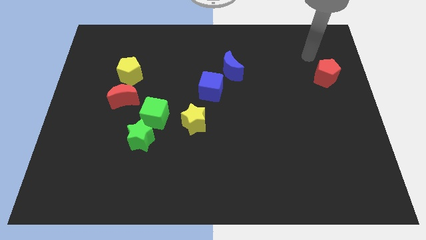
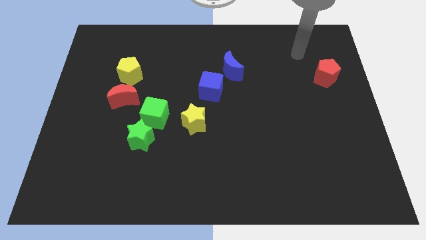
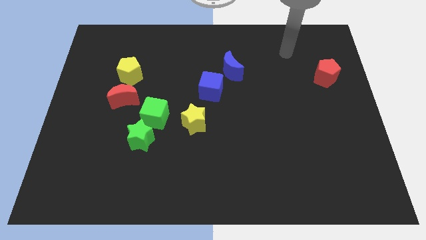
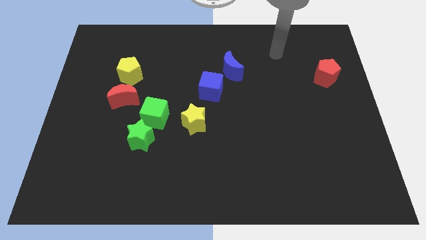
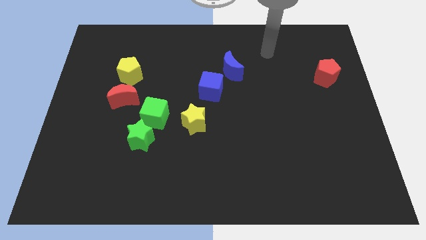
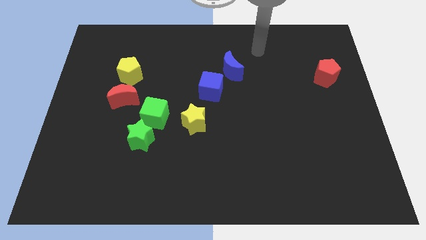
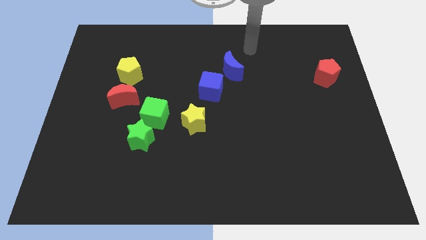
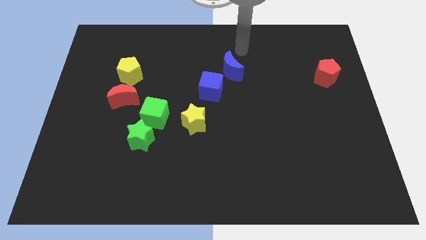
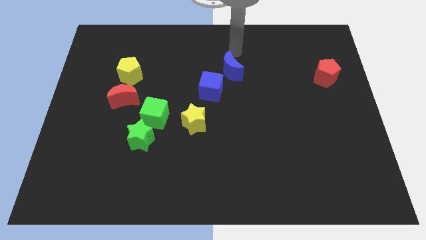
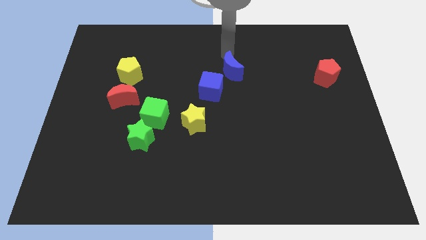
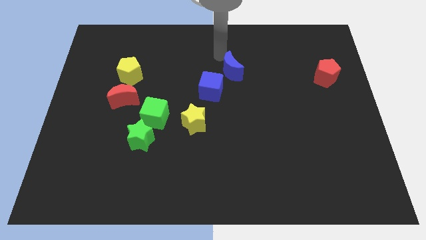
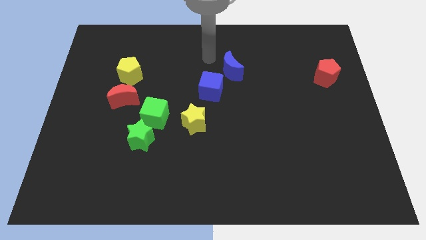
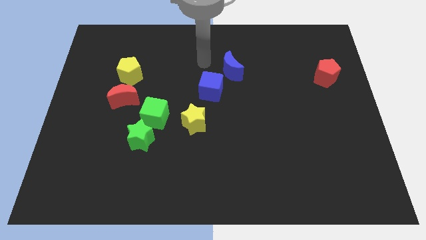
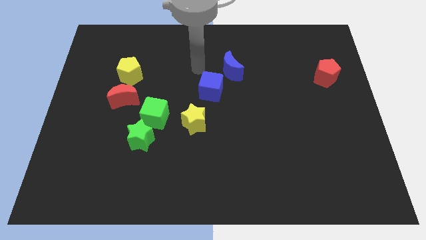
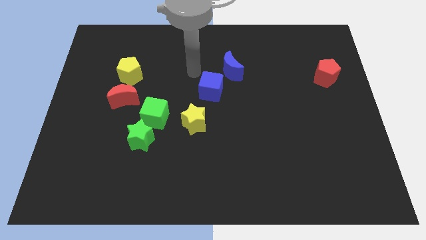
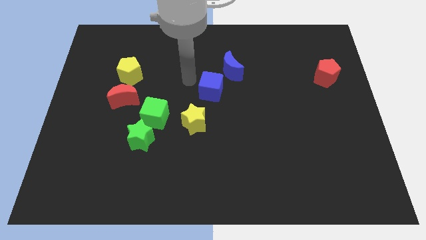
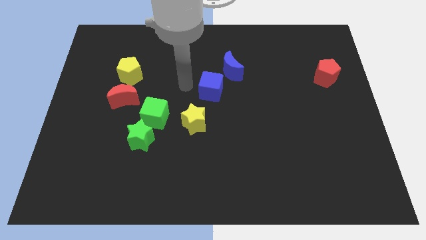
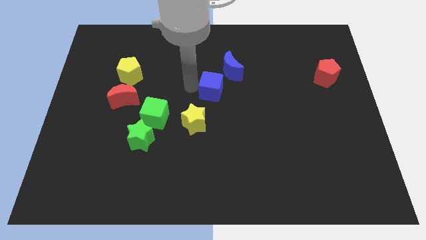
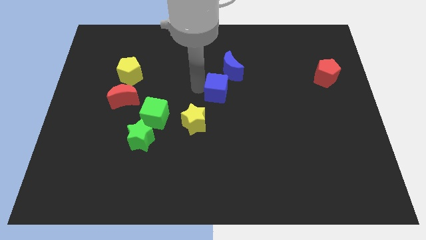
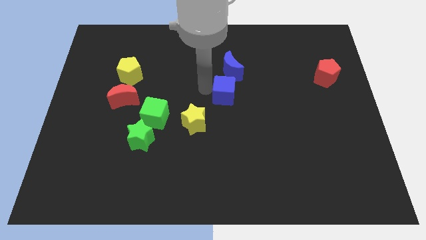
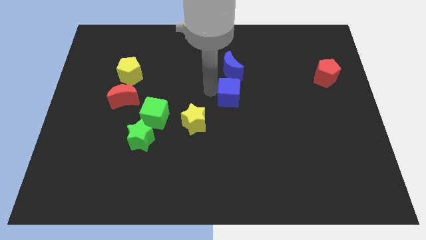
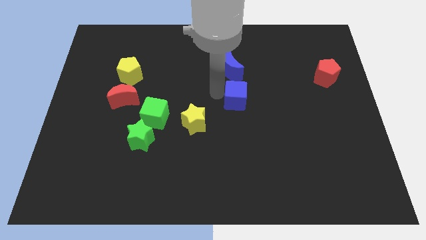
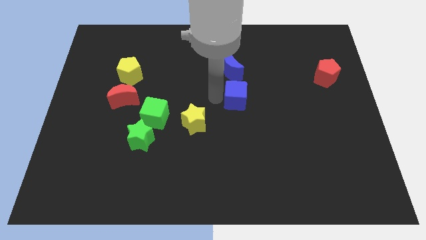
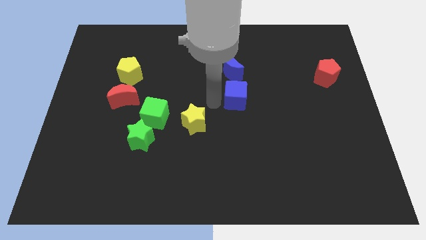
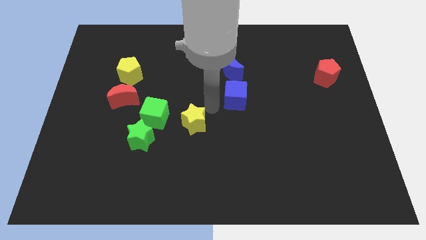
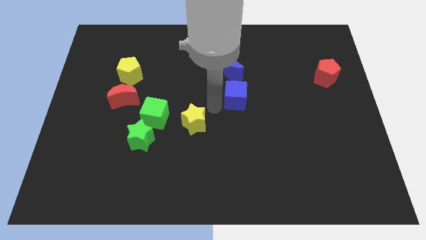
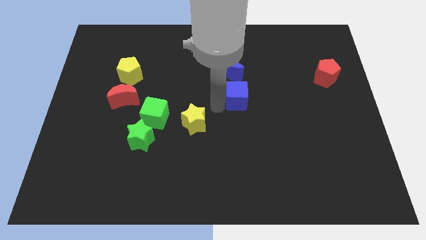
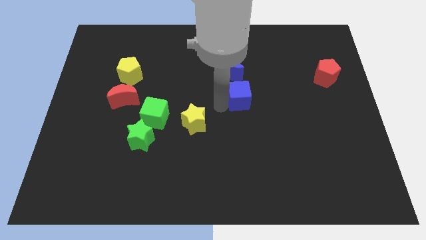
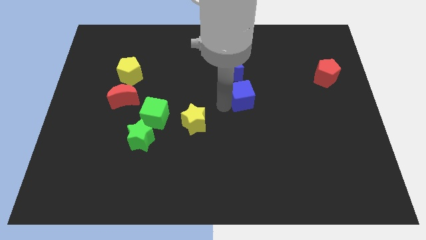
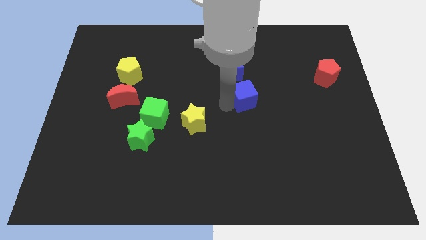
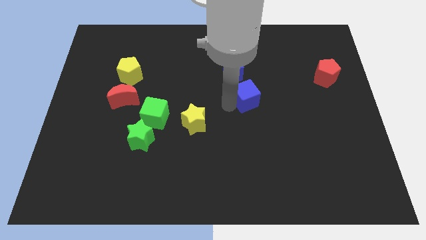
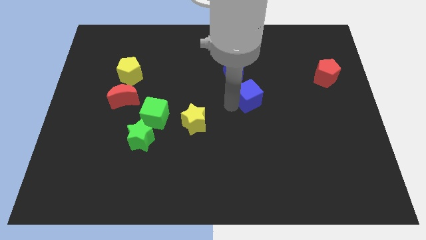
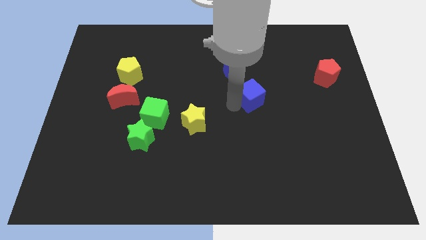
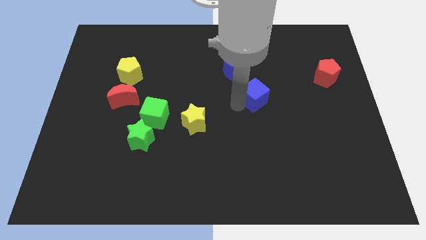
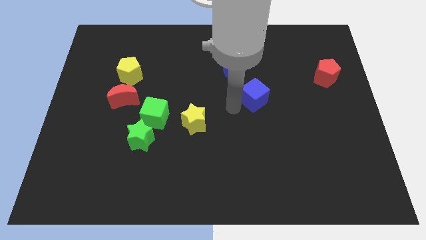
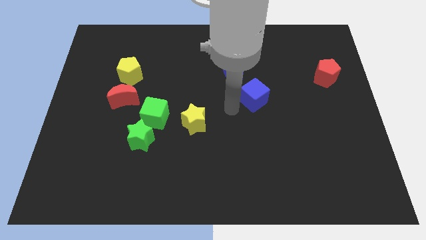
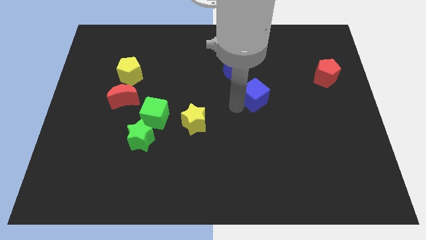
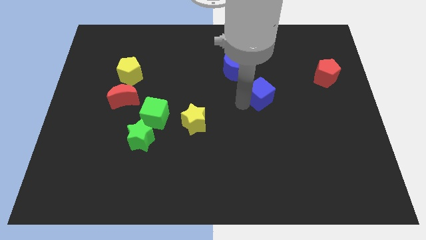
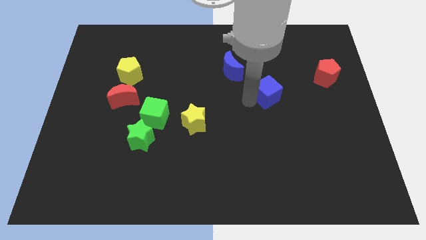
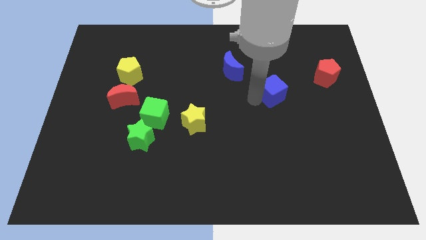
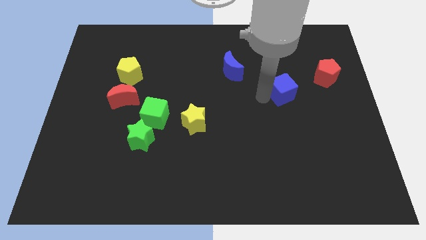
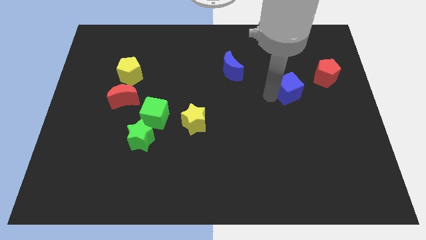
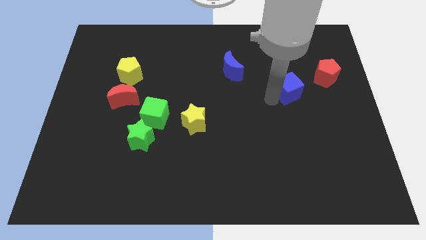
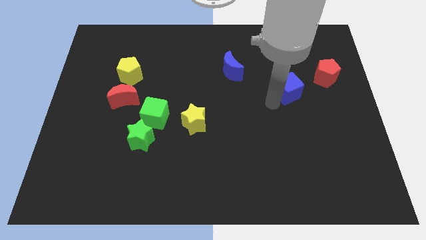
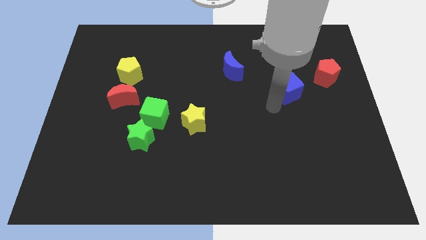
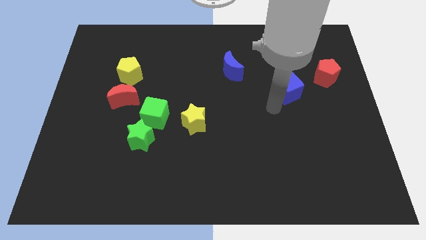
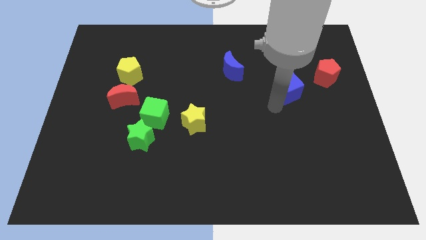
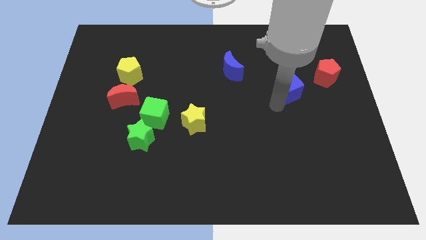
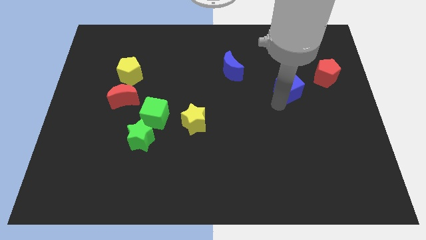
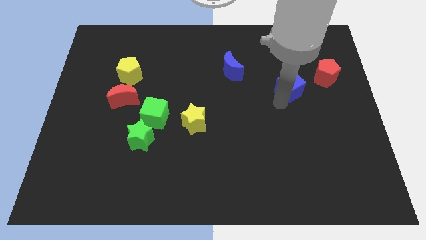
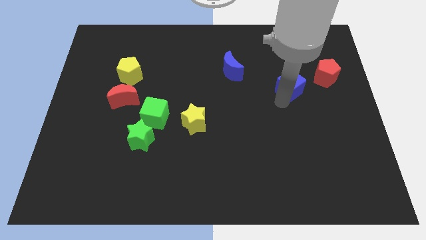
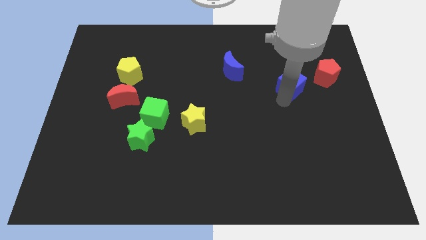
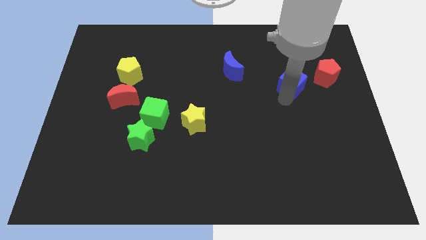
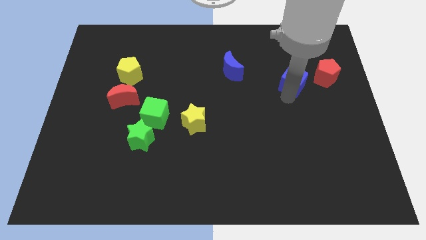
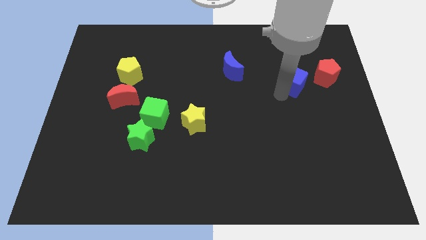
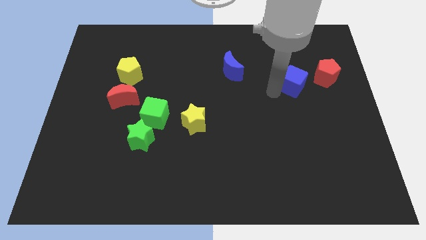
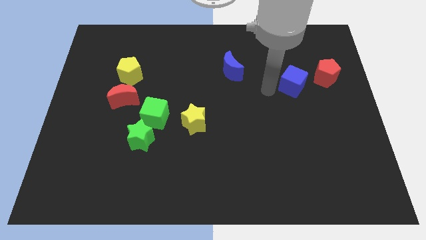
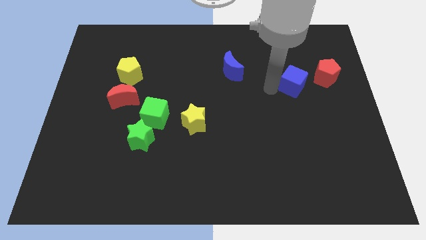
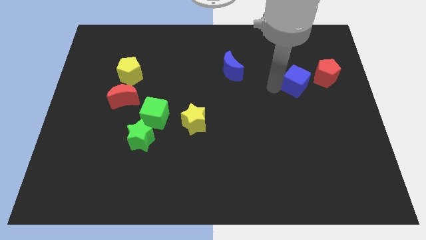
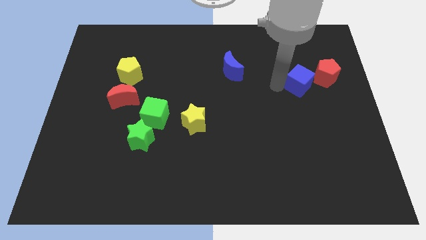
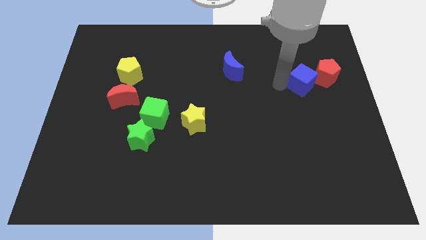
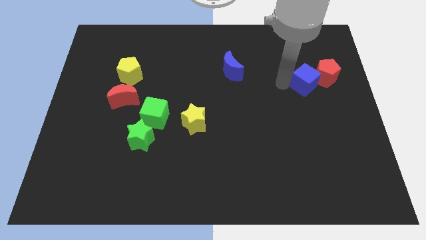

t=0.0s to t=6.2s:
move the blue cube to the red pentagon

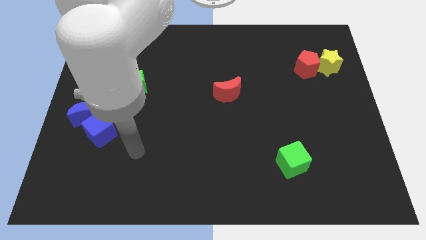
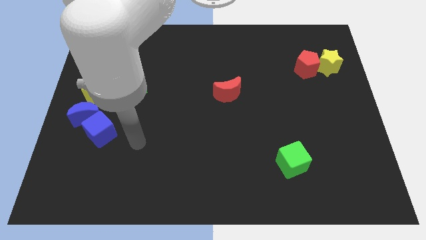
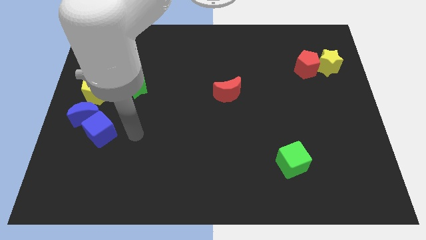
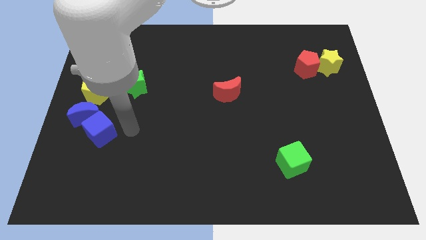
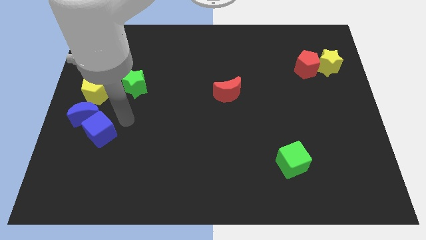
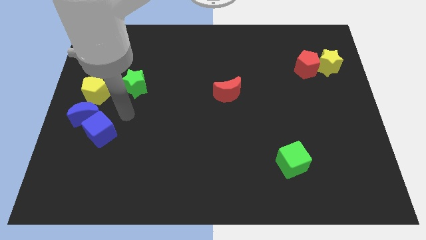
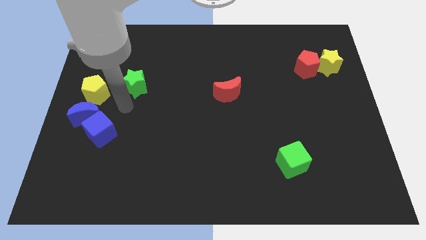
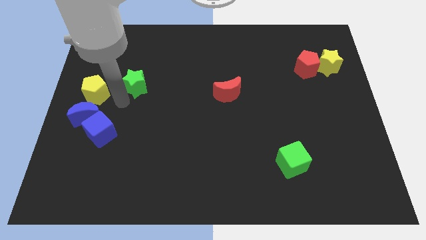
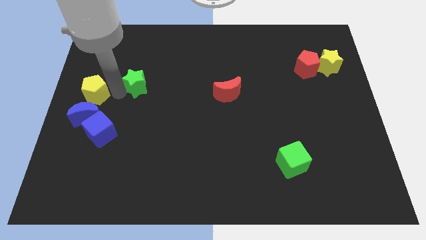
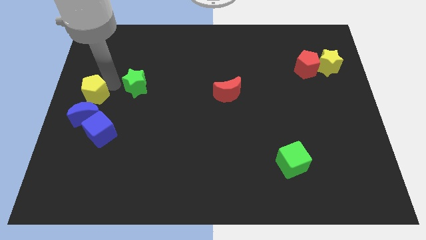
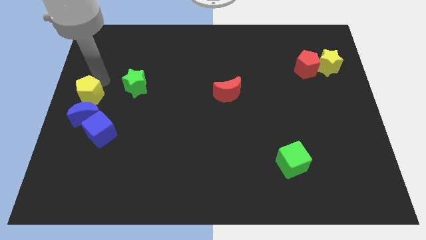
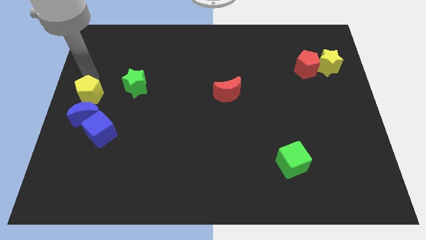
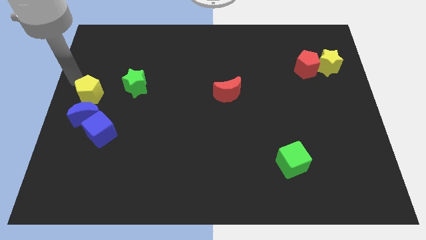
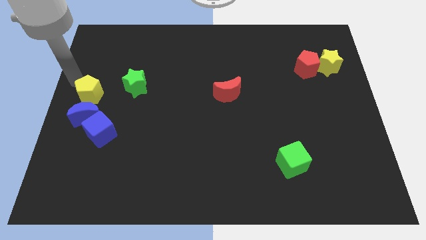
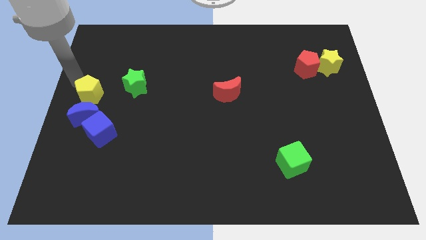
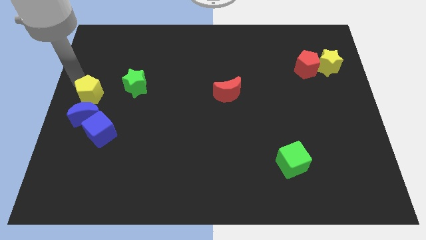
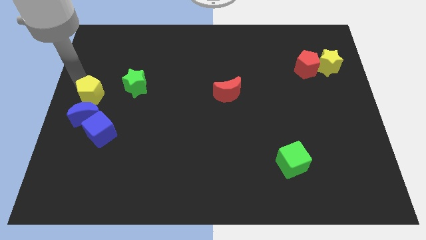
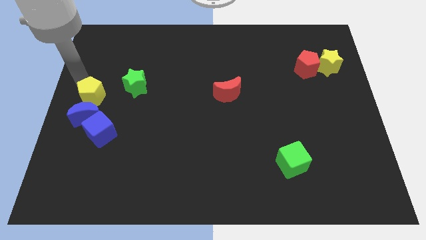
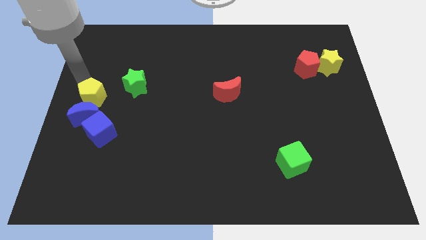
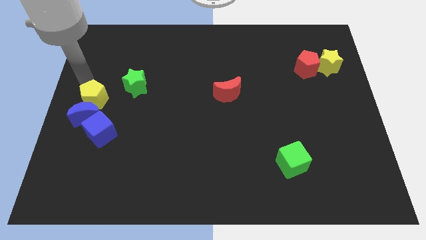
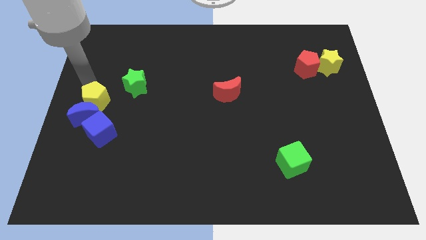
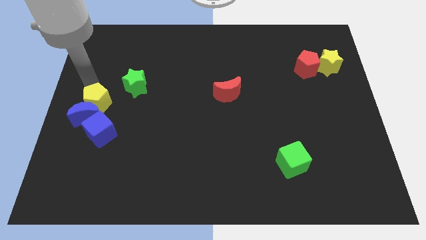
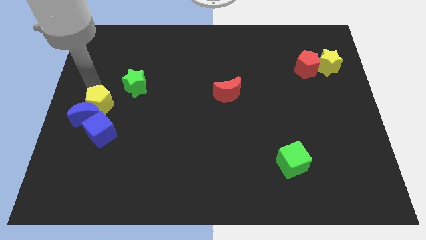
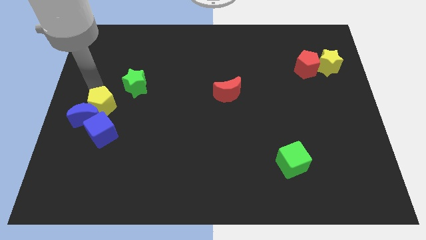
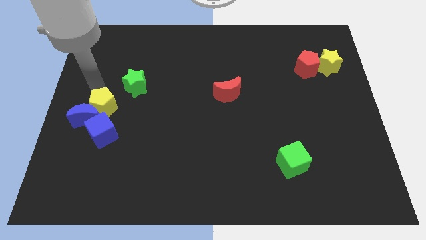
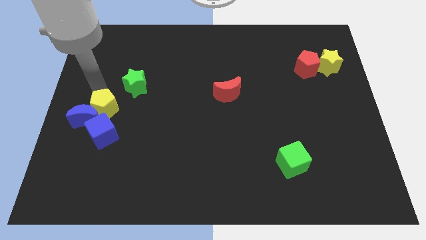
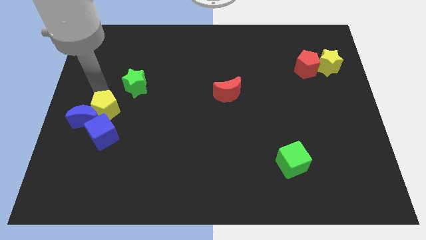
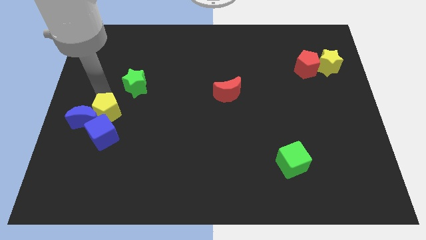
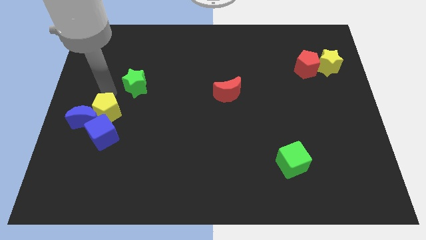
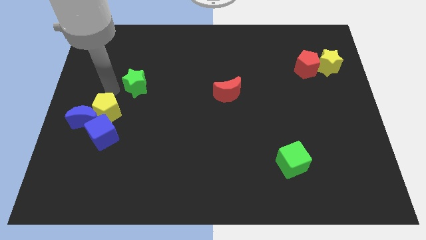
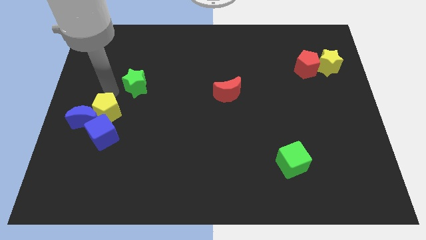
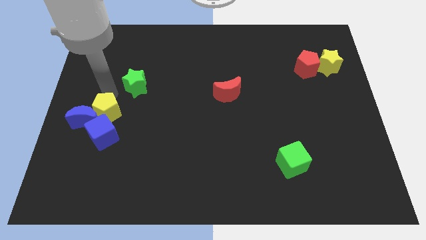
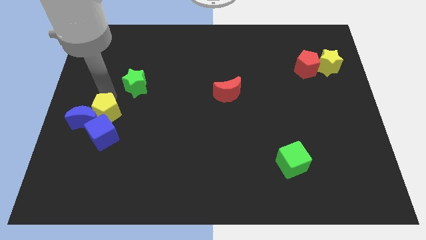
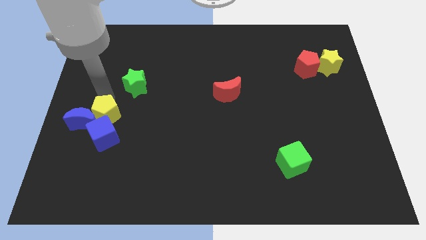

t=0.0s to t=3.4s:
put the yellow pentagon close to the blue cube
